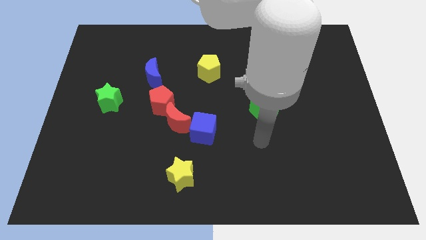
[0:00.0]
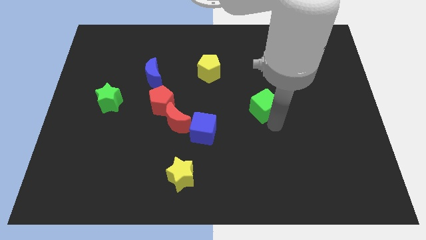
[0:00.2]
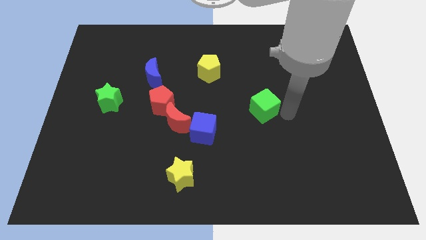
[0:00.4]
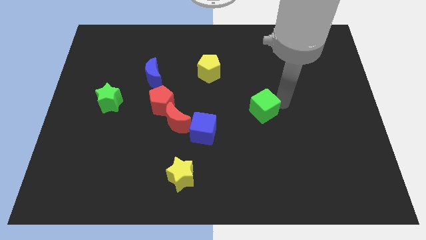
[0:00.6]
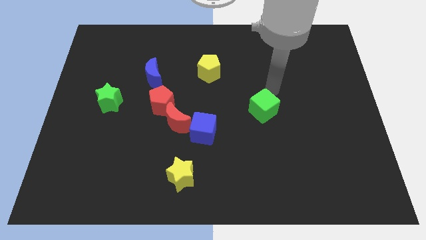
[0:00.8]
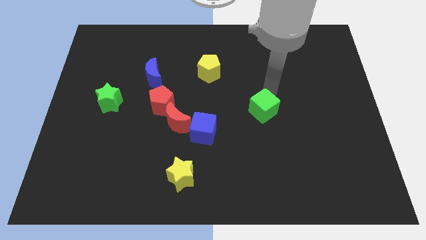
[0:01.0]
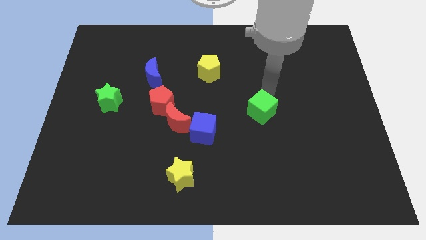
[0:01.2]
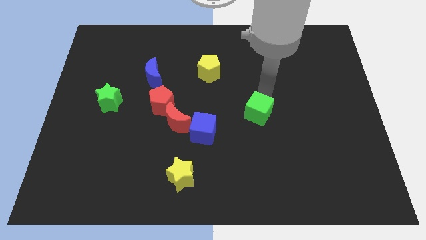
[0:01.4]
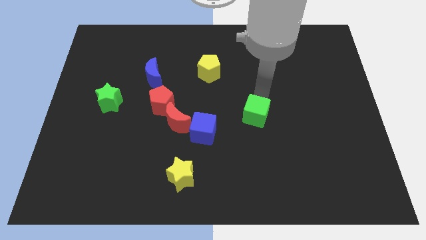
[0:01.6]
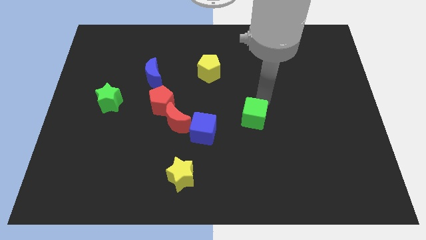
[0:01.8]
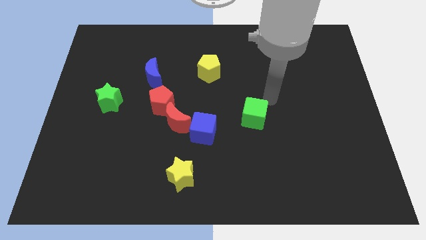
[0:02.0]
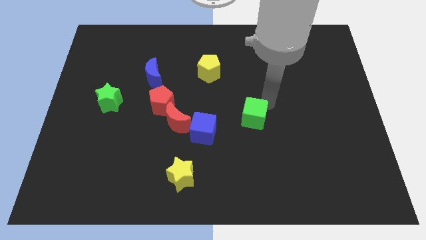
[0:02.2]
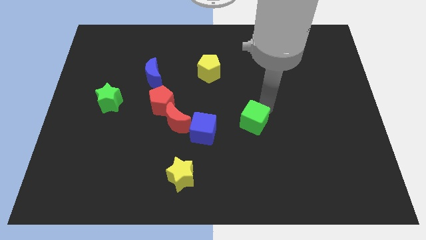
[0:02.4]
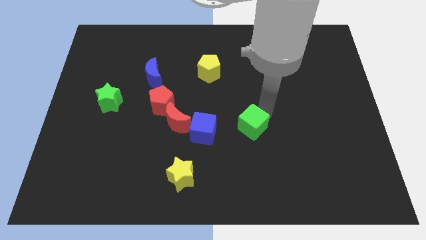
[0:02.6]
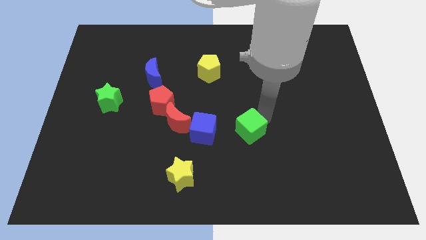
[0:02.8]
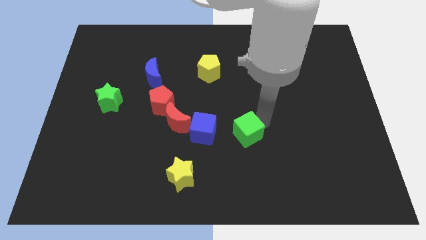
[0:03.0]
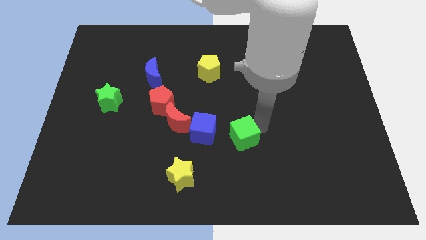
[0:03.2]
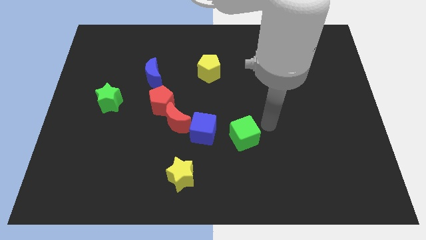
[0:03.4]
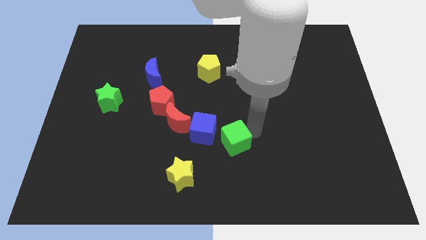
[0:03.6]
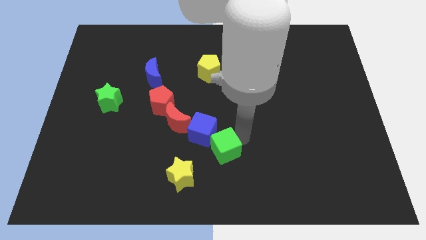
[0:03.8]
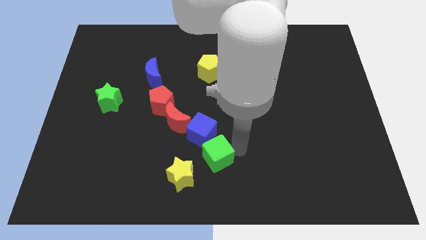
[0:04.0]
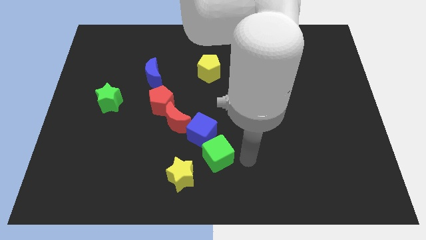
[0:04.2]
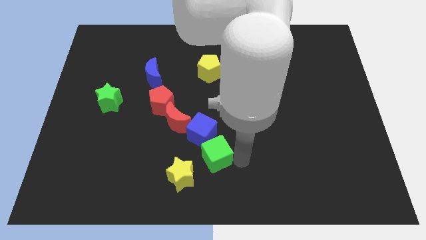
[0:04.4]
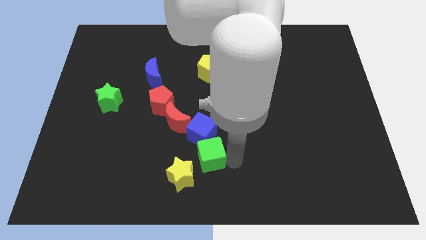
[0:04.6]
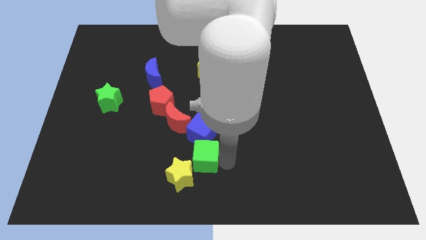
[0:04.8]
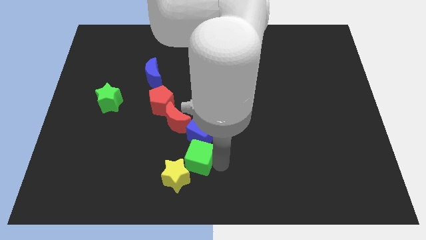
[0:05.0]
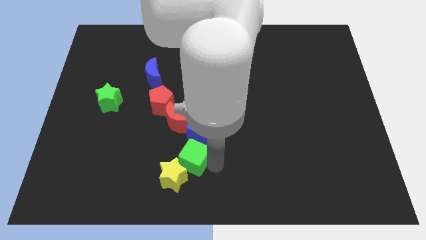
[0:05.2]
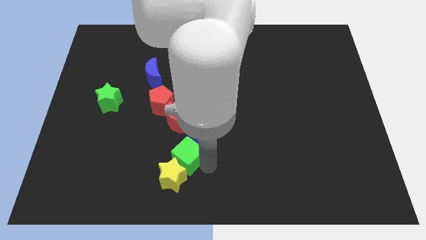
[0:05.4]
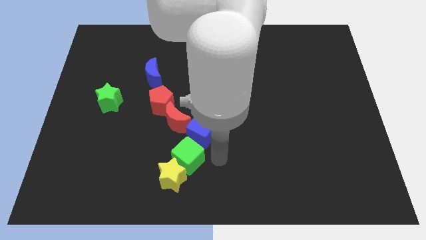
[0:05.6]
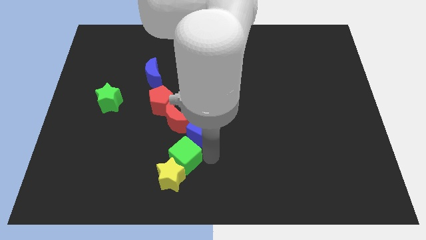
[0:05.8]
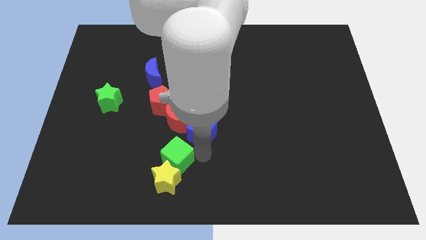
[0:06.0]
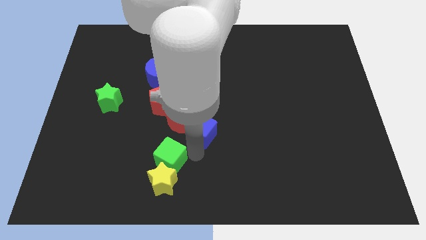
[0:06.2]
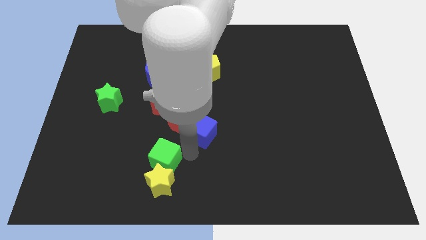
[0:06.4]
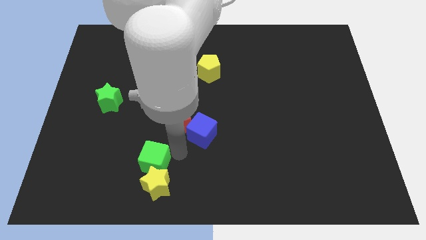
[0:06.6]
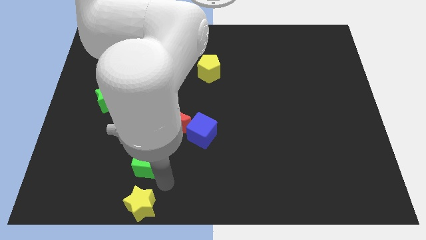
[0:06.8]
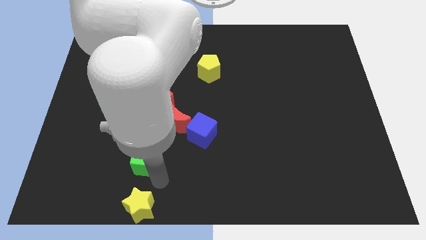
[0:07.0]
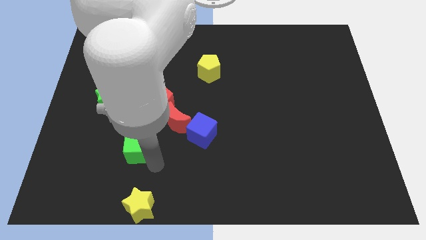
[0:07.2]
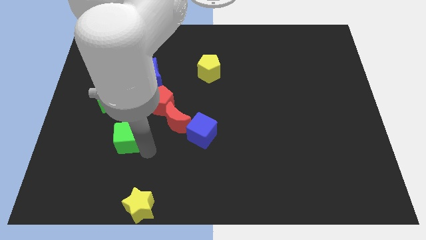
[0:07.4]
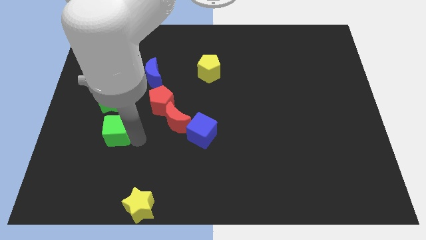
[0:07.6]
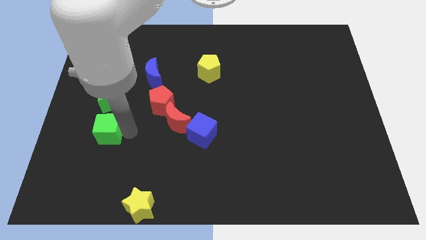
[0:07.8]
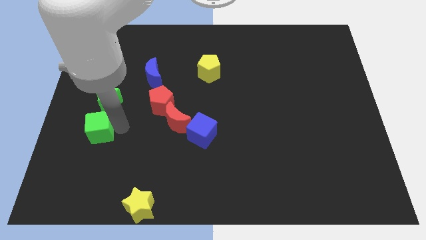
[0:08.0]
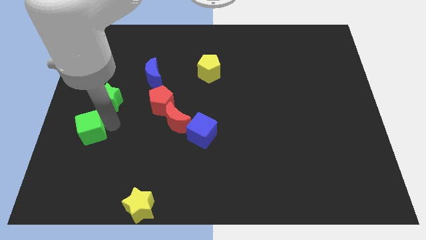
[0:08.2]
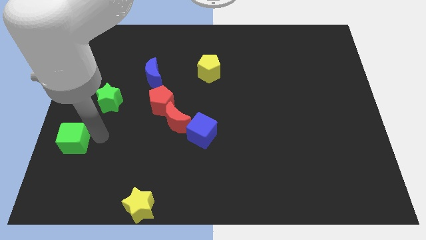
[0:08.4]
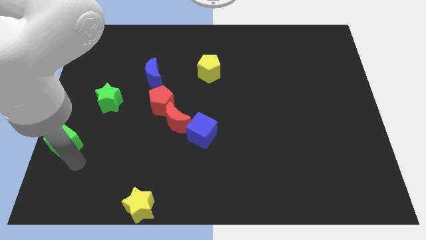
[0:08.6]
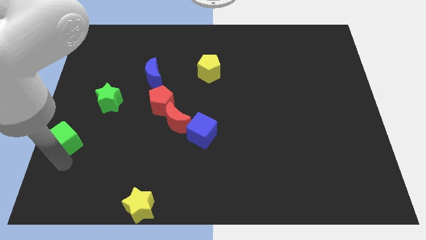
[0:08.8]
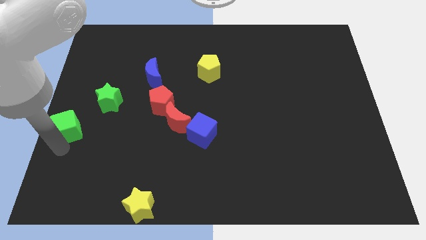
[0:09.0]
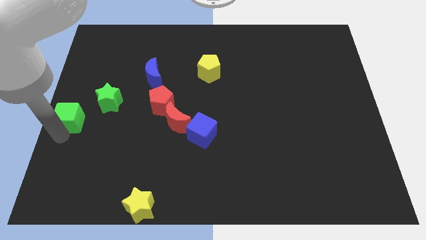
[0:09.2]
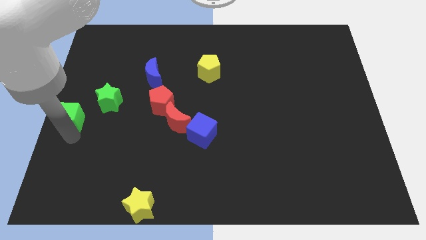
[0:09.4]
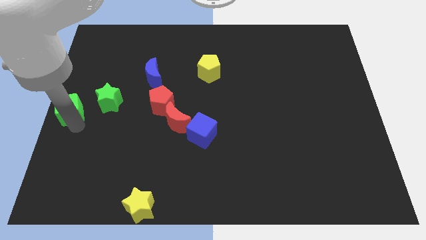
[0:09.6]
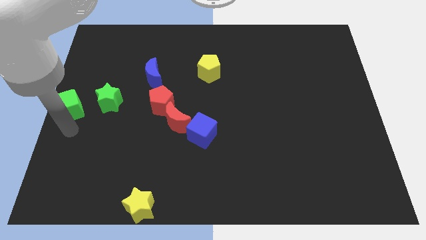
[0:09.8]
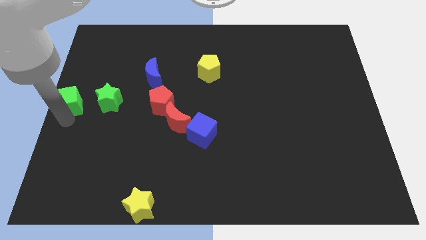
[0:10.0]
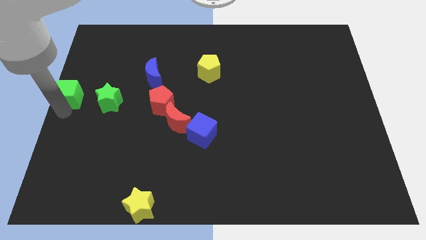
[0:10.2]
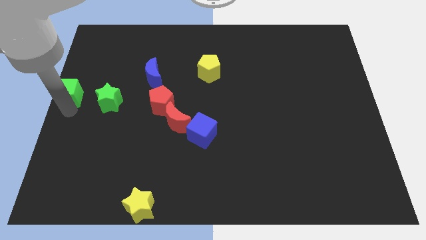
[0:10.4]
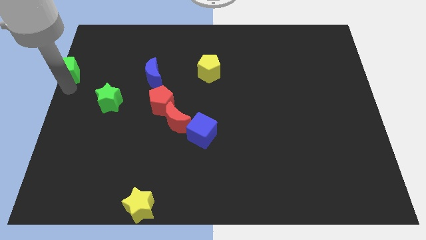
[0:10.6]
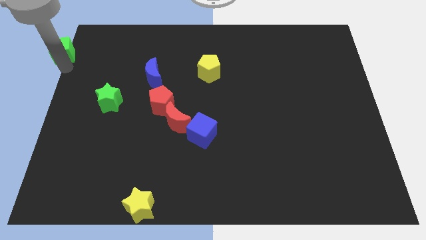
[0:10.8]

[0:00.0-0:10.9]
slide the green cube to the top left corner

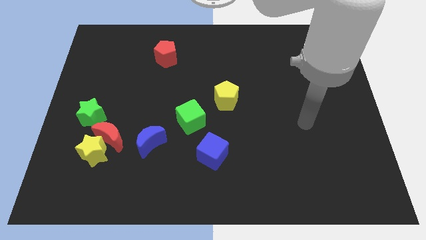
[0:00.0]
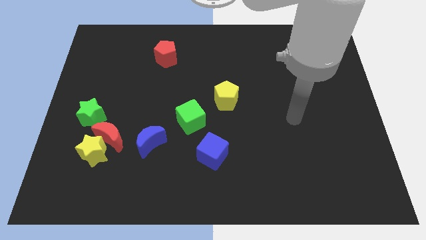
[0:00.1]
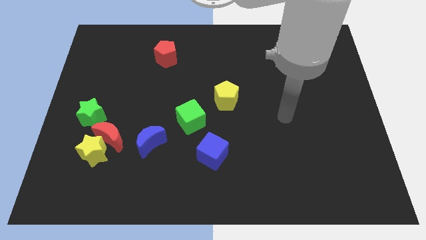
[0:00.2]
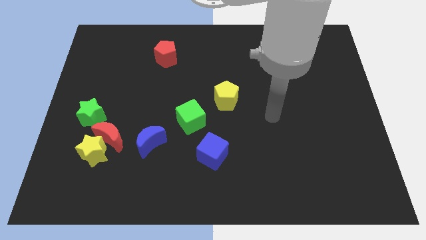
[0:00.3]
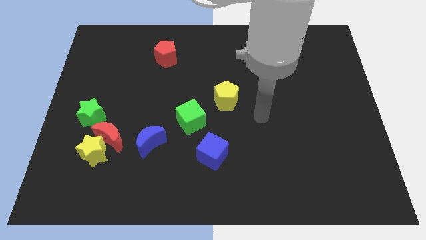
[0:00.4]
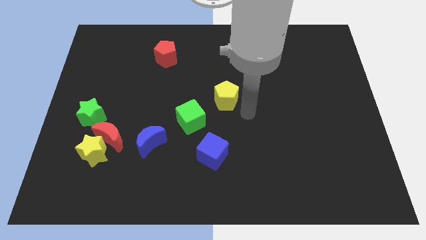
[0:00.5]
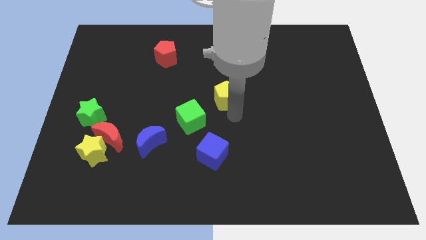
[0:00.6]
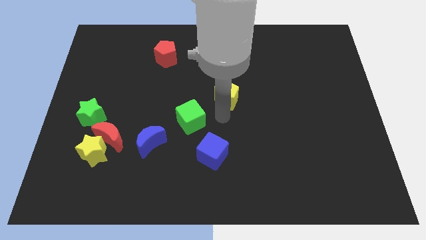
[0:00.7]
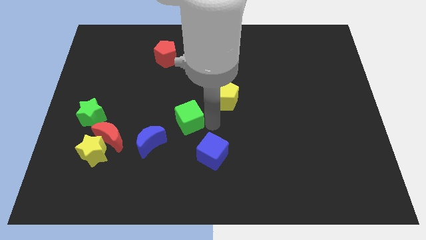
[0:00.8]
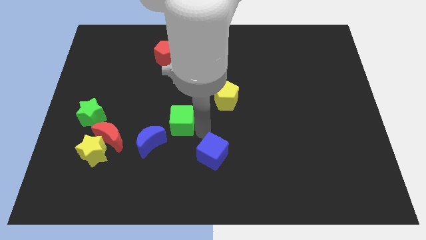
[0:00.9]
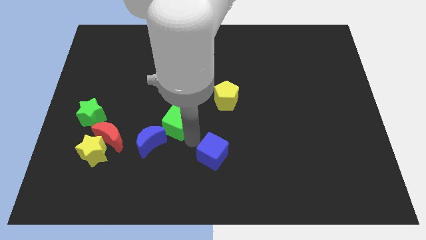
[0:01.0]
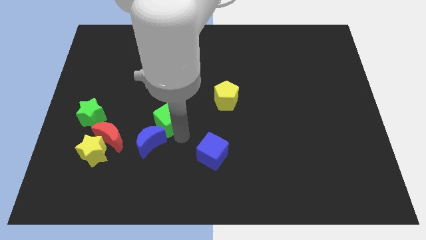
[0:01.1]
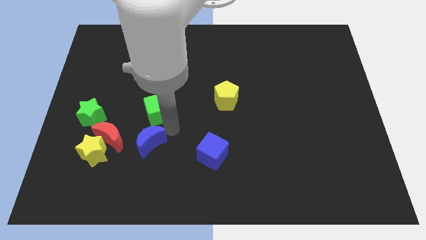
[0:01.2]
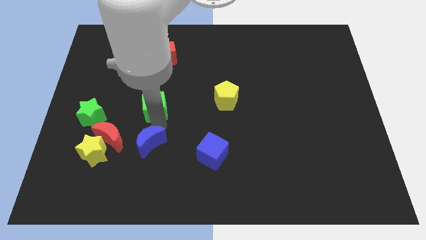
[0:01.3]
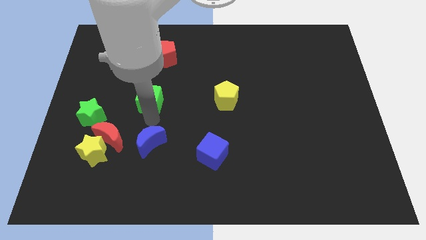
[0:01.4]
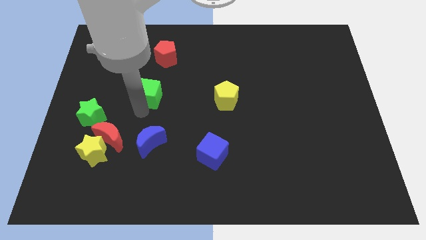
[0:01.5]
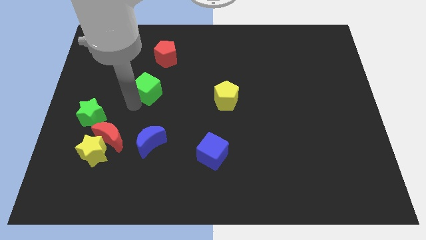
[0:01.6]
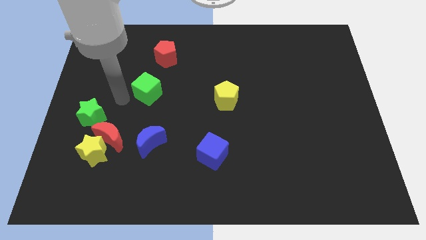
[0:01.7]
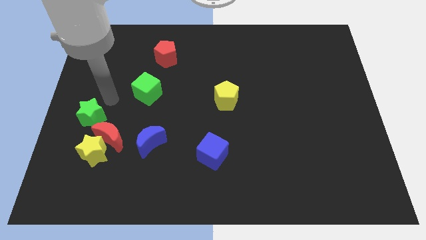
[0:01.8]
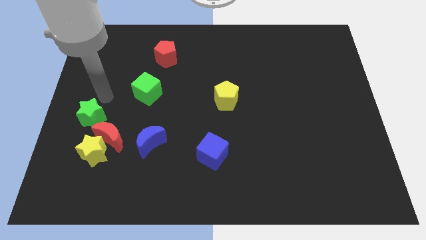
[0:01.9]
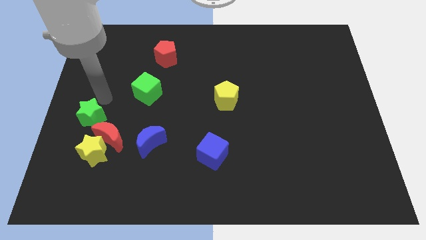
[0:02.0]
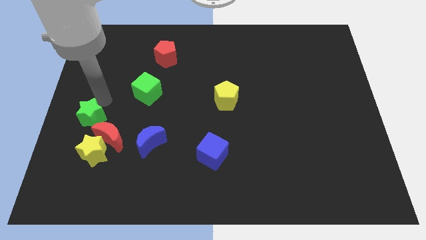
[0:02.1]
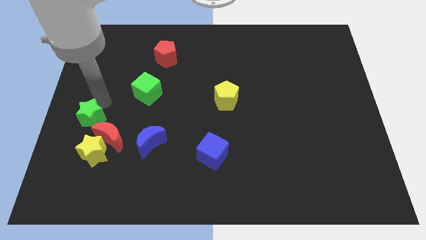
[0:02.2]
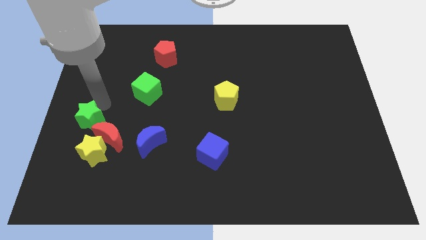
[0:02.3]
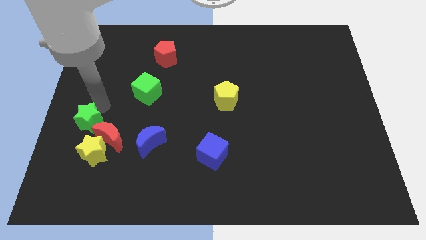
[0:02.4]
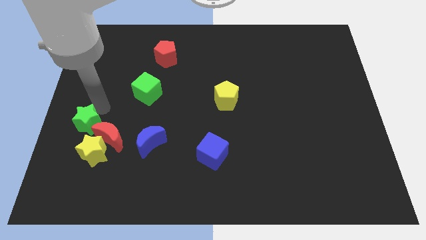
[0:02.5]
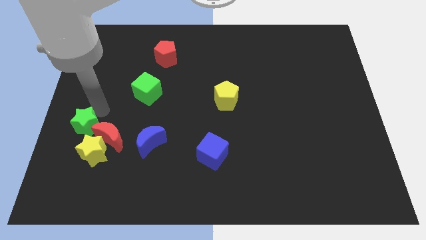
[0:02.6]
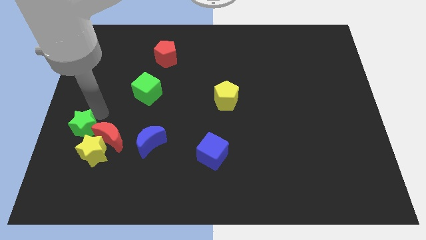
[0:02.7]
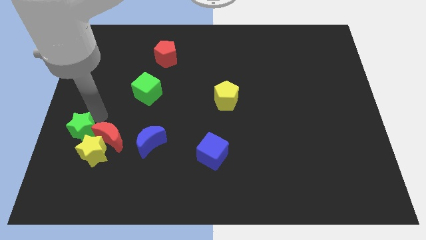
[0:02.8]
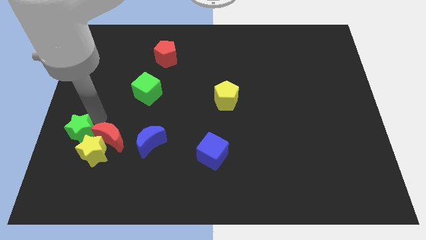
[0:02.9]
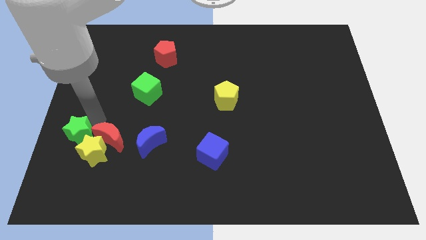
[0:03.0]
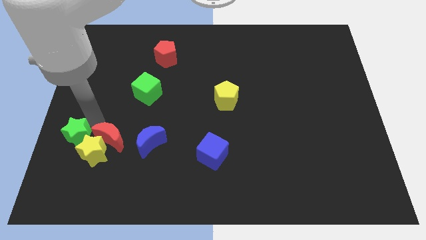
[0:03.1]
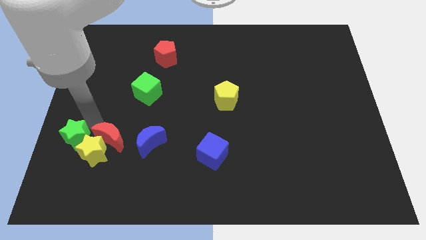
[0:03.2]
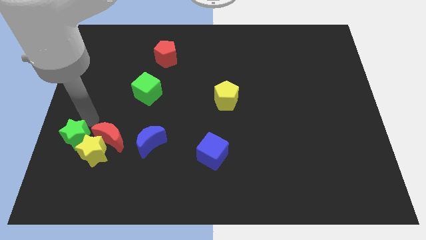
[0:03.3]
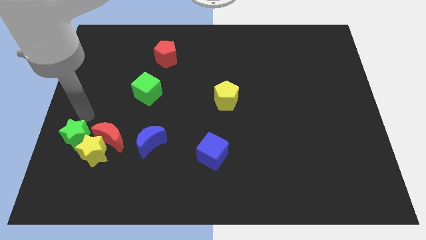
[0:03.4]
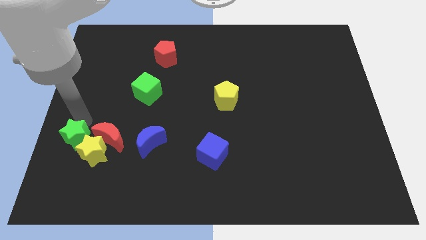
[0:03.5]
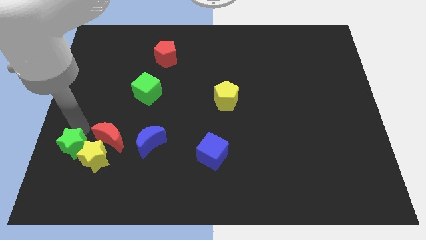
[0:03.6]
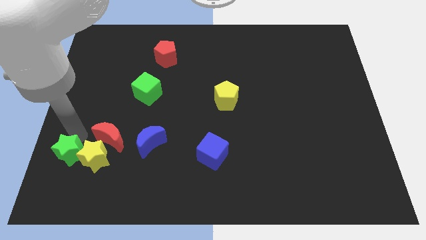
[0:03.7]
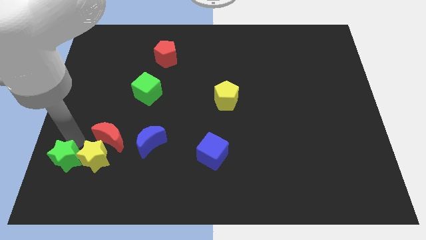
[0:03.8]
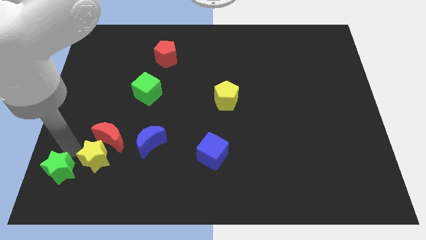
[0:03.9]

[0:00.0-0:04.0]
push the green star to the bottom left corner
